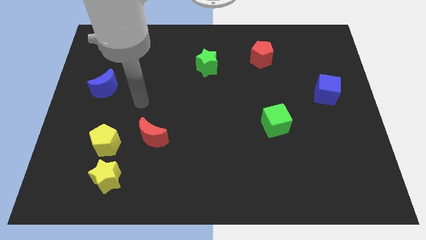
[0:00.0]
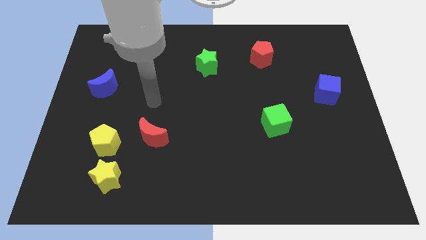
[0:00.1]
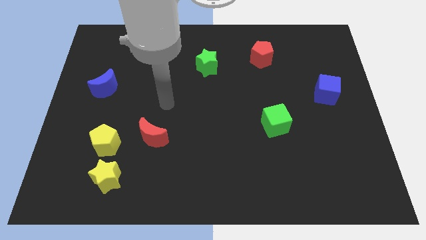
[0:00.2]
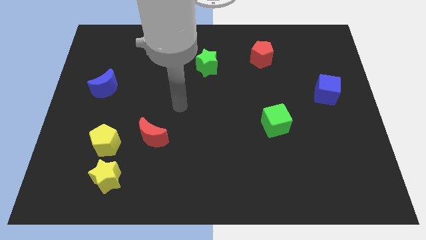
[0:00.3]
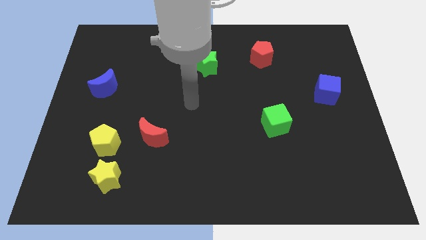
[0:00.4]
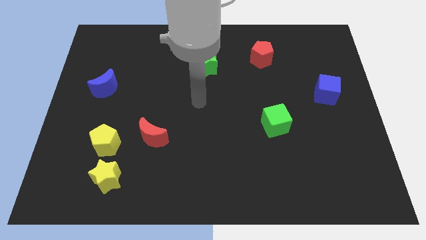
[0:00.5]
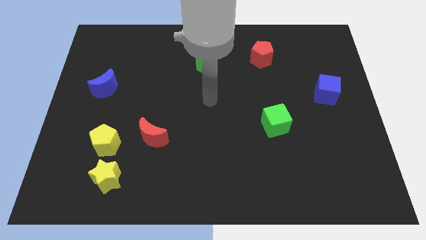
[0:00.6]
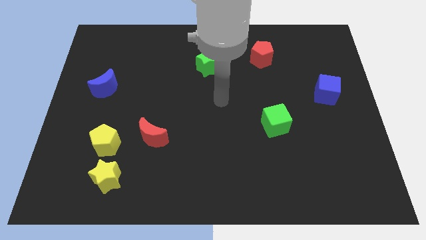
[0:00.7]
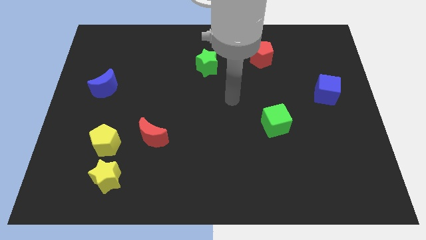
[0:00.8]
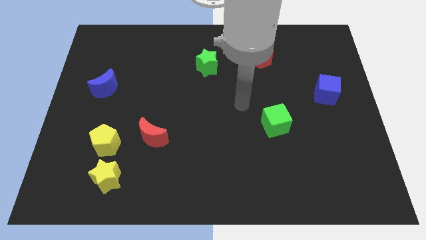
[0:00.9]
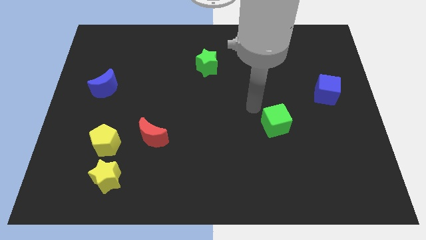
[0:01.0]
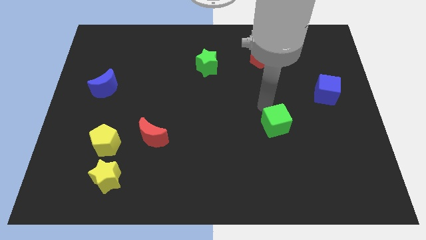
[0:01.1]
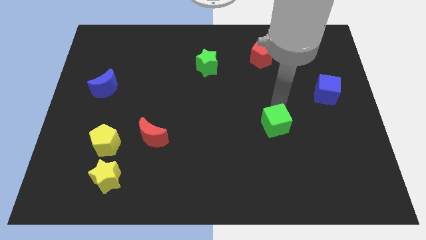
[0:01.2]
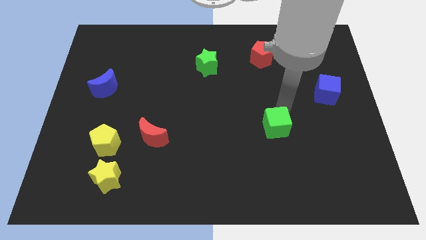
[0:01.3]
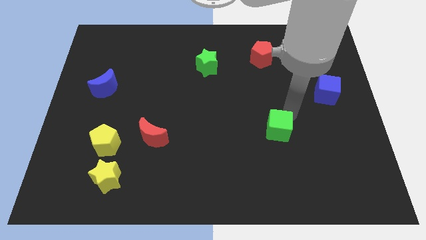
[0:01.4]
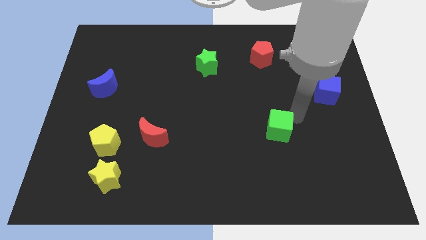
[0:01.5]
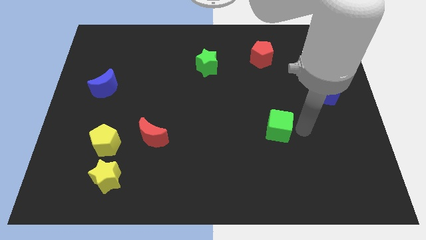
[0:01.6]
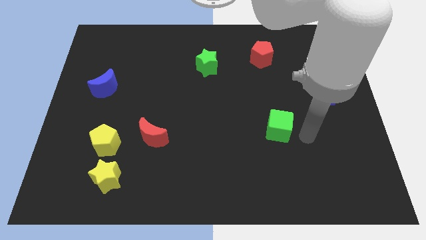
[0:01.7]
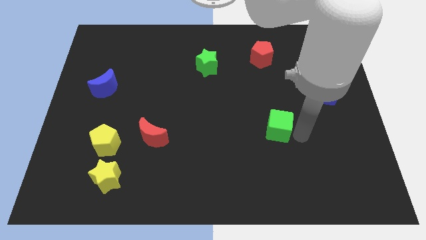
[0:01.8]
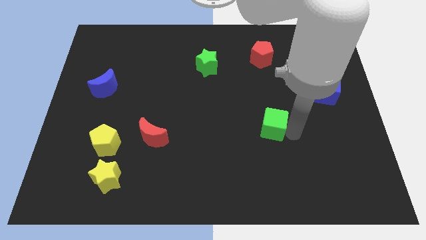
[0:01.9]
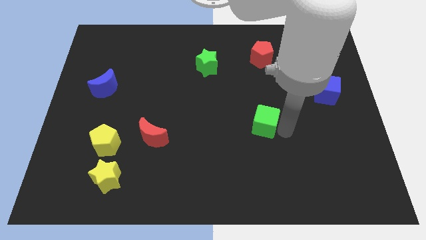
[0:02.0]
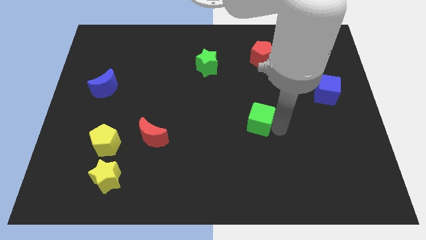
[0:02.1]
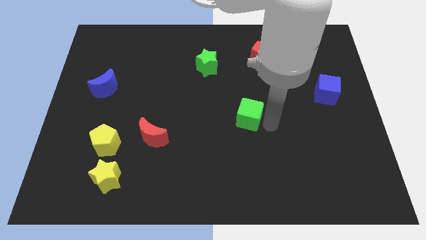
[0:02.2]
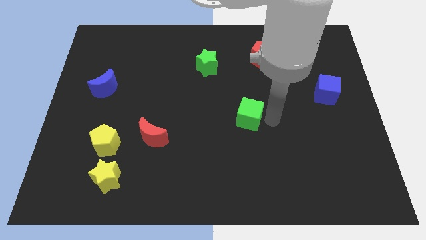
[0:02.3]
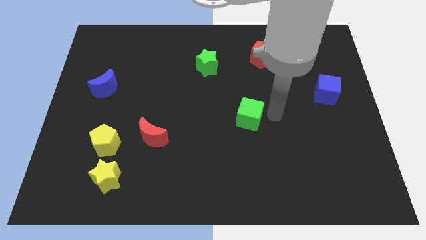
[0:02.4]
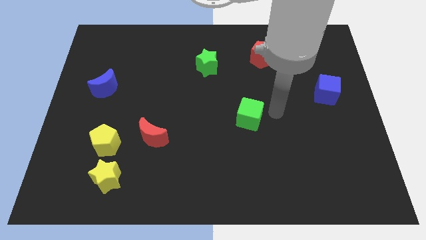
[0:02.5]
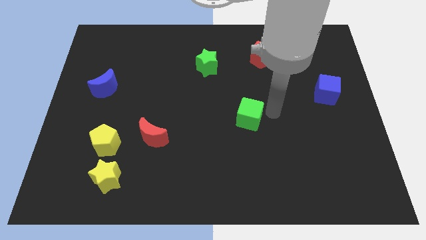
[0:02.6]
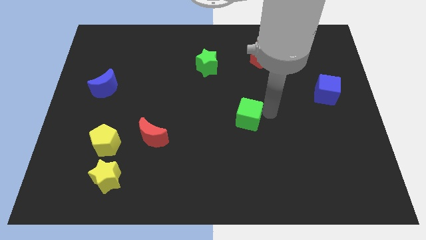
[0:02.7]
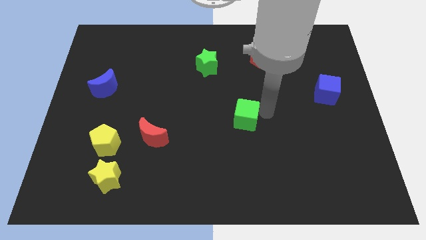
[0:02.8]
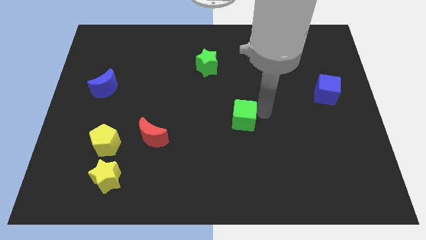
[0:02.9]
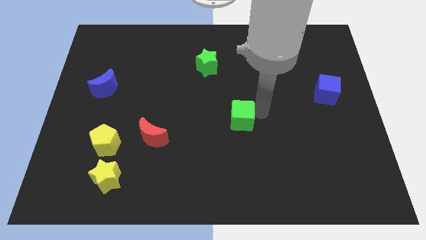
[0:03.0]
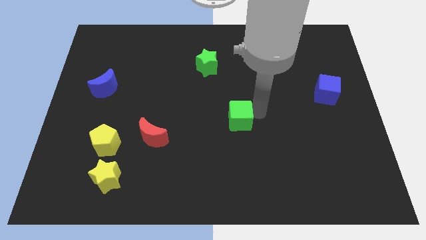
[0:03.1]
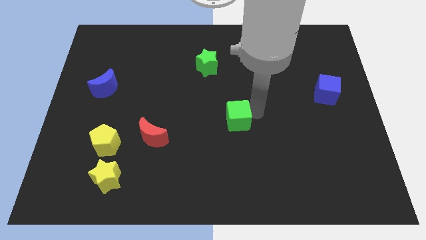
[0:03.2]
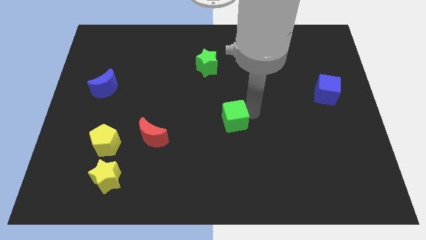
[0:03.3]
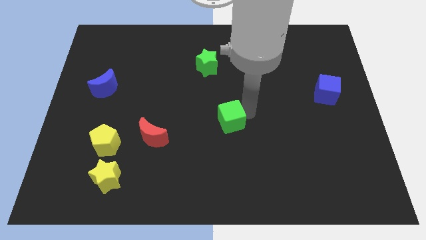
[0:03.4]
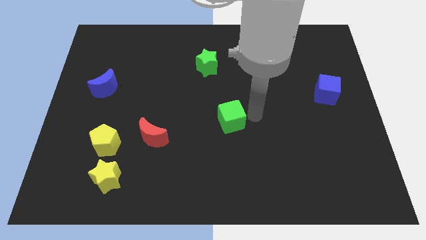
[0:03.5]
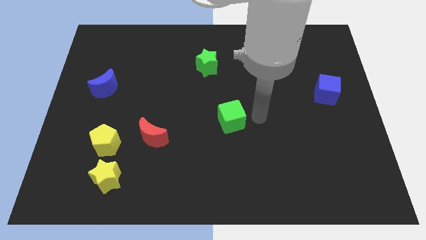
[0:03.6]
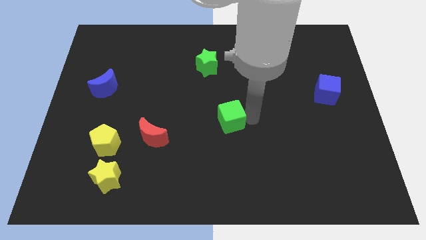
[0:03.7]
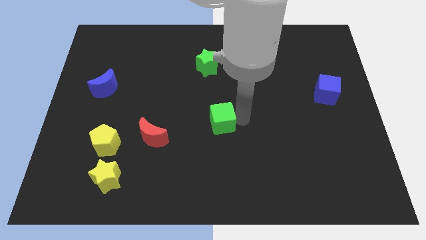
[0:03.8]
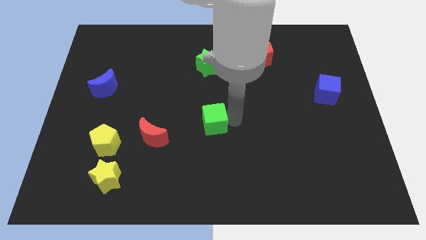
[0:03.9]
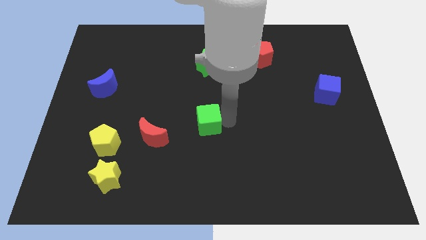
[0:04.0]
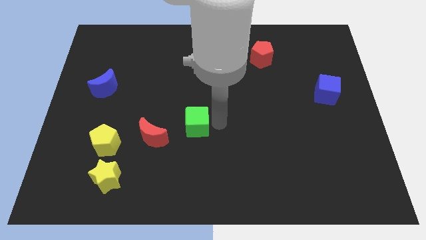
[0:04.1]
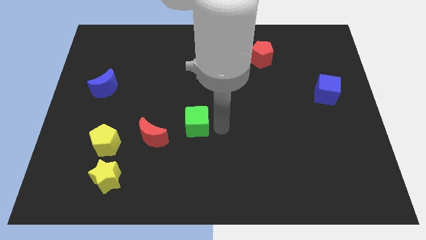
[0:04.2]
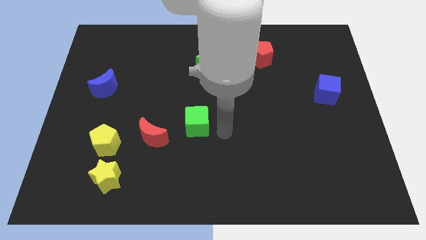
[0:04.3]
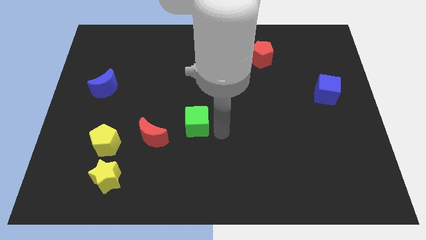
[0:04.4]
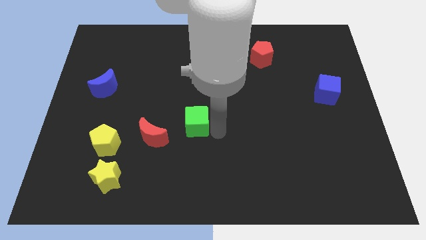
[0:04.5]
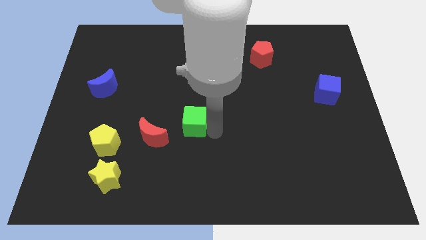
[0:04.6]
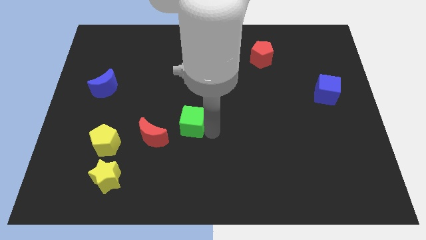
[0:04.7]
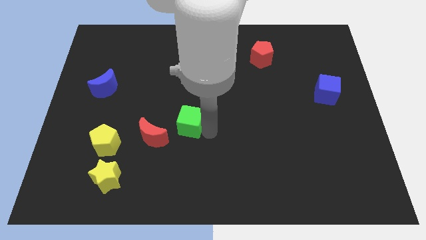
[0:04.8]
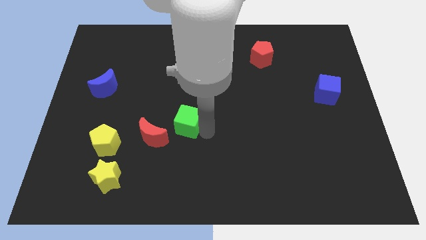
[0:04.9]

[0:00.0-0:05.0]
move the green cube to the left

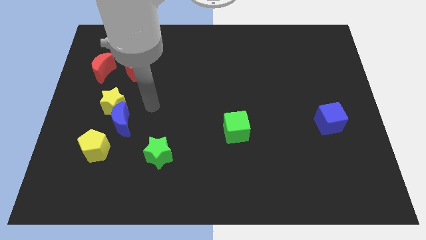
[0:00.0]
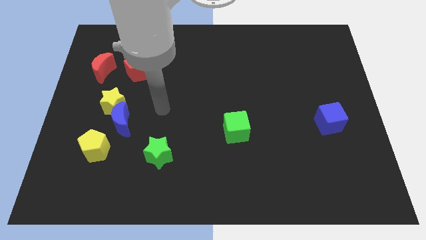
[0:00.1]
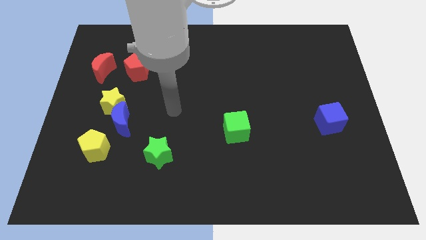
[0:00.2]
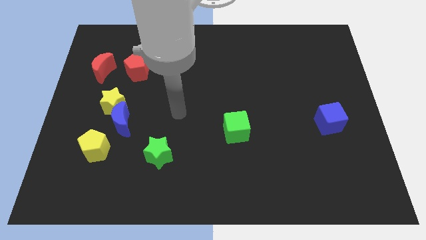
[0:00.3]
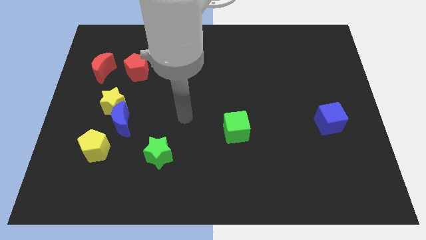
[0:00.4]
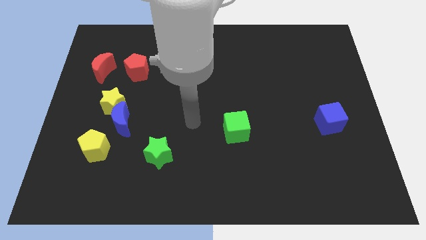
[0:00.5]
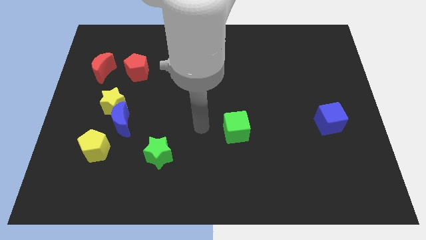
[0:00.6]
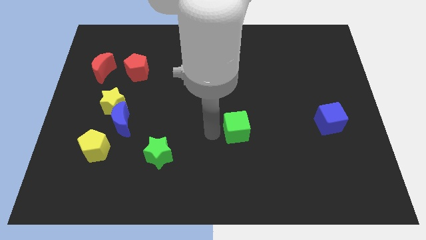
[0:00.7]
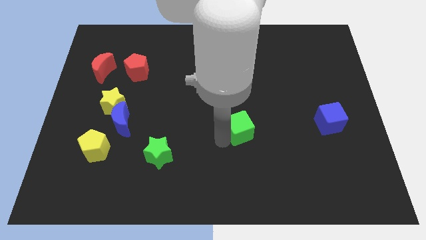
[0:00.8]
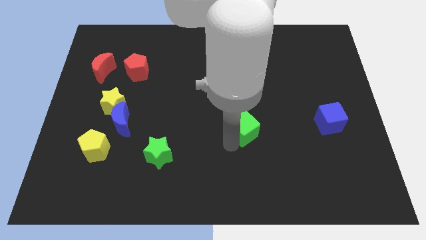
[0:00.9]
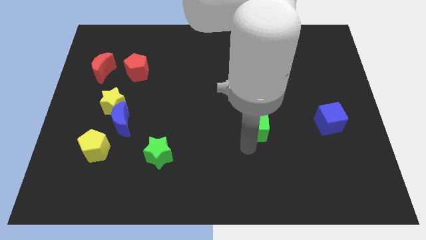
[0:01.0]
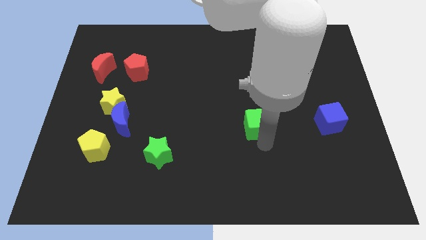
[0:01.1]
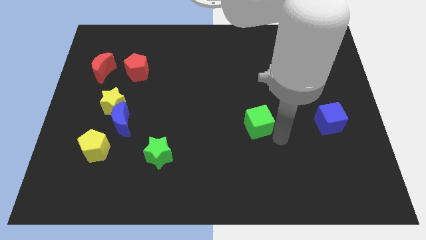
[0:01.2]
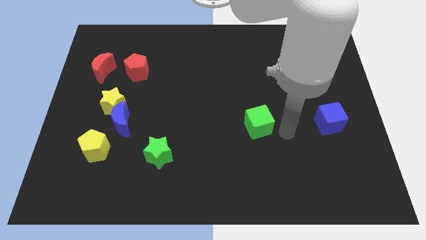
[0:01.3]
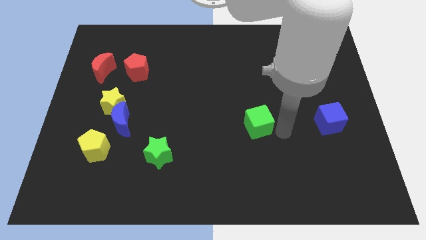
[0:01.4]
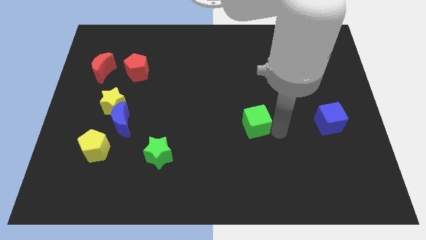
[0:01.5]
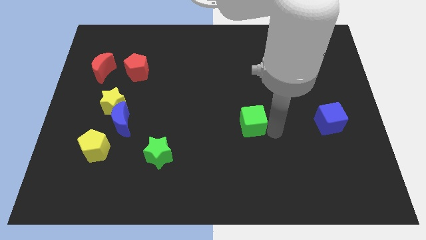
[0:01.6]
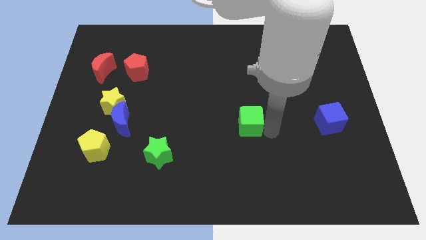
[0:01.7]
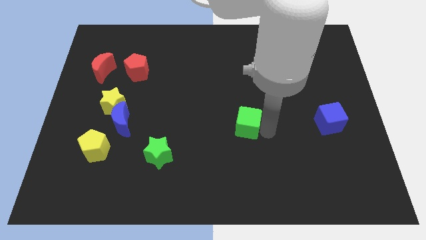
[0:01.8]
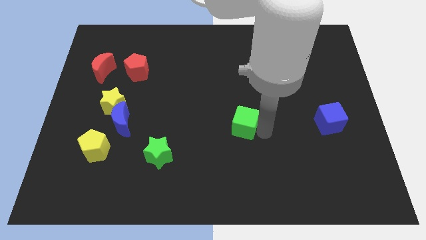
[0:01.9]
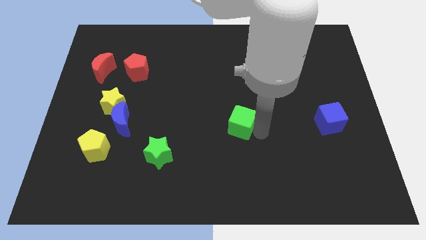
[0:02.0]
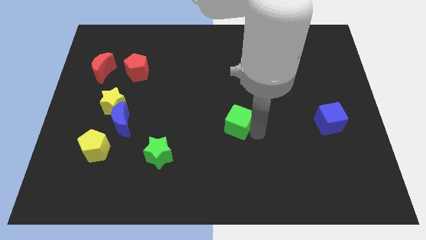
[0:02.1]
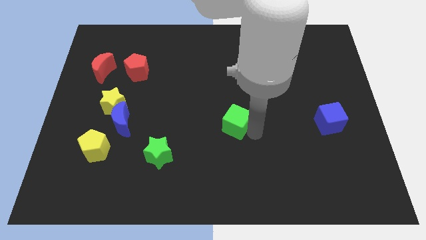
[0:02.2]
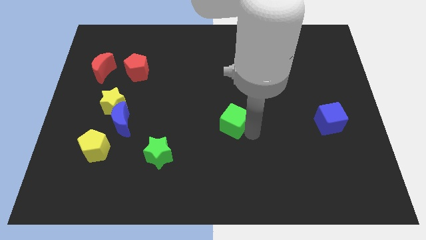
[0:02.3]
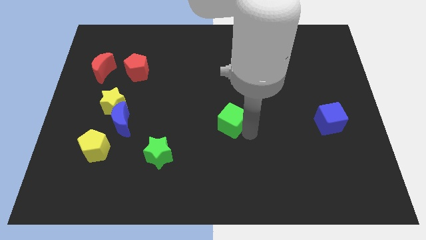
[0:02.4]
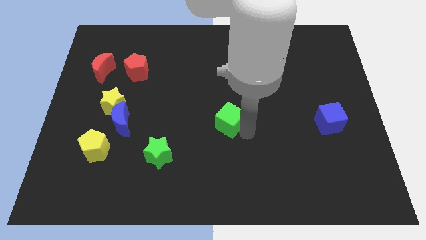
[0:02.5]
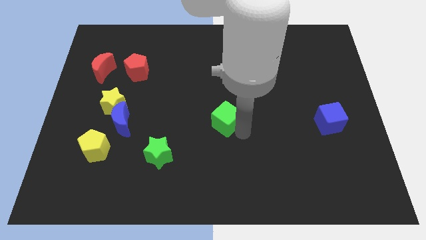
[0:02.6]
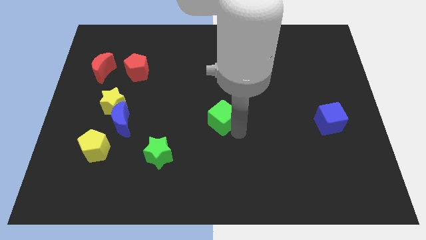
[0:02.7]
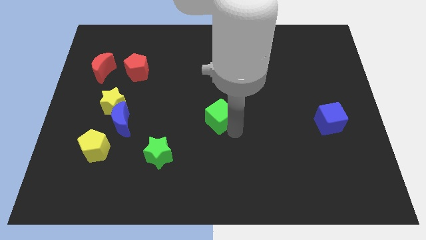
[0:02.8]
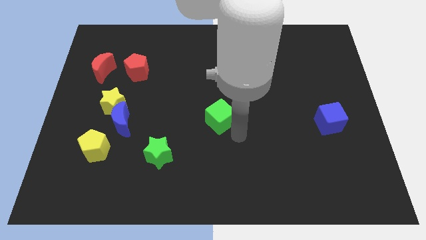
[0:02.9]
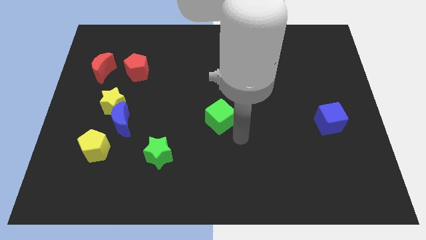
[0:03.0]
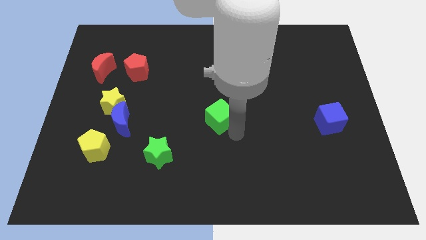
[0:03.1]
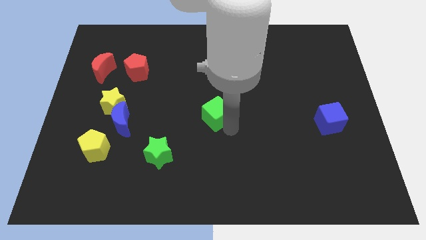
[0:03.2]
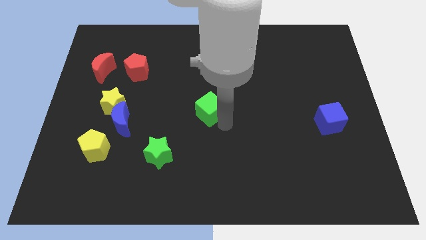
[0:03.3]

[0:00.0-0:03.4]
push the green cube slightly upwards and then to the left

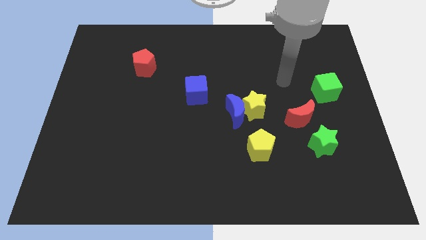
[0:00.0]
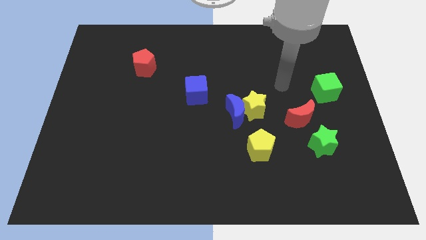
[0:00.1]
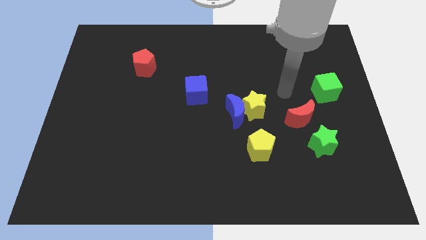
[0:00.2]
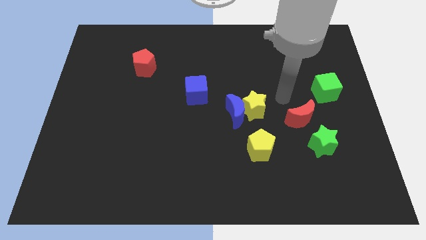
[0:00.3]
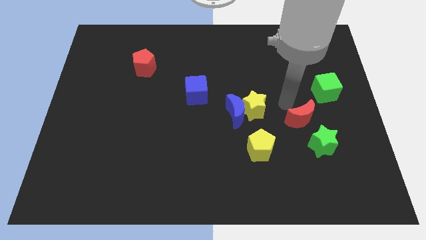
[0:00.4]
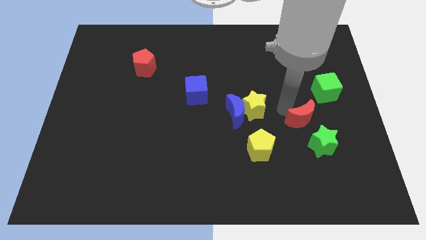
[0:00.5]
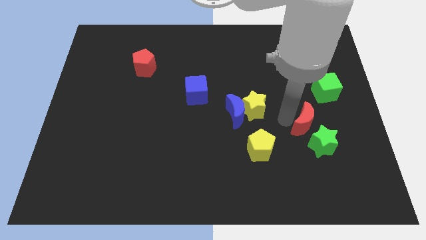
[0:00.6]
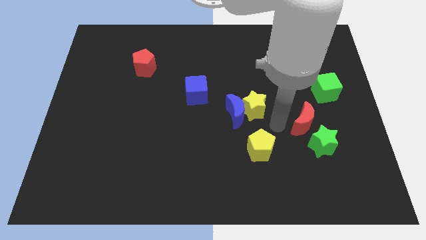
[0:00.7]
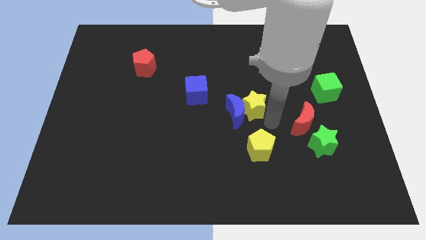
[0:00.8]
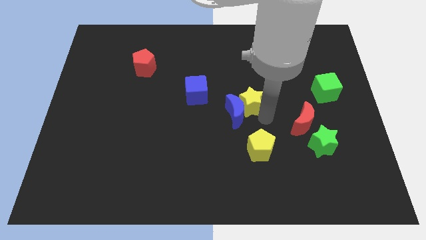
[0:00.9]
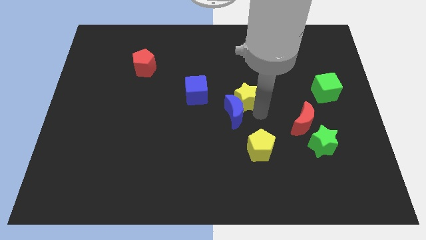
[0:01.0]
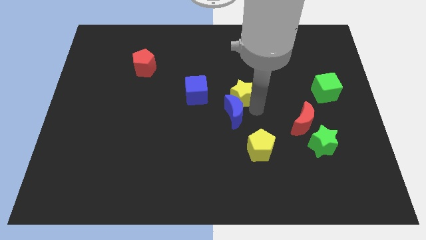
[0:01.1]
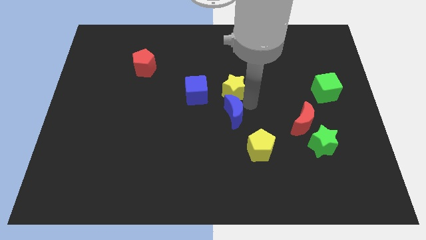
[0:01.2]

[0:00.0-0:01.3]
slide the yellow star a little bit up and left diagonally
